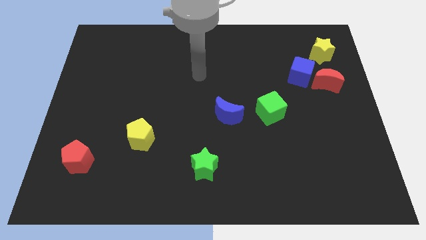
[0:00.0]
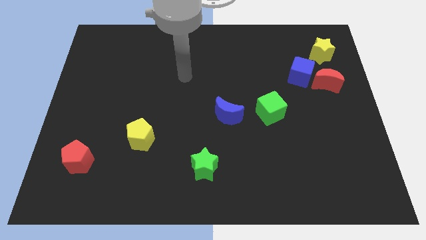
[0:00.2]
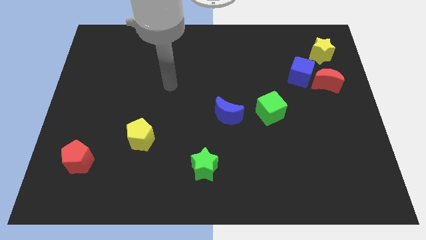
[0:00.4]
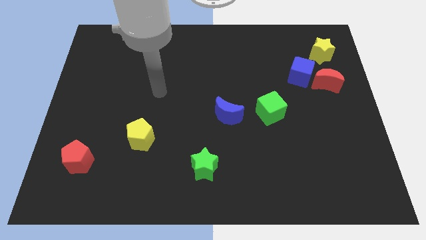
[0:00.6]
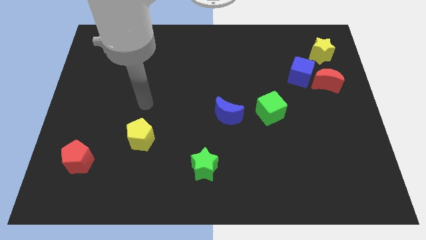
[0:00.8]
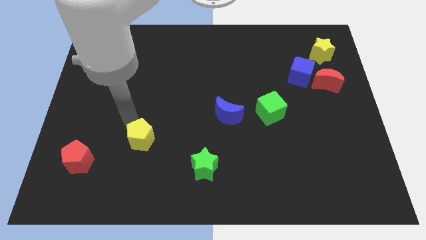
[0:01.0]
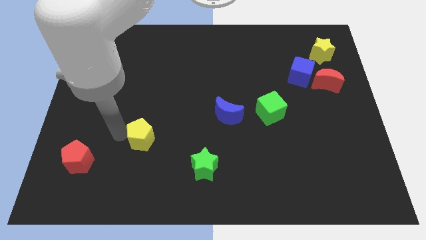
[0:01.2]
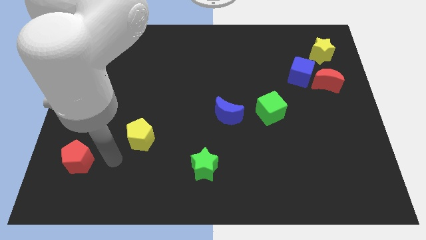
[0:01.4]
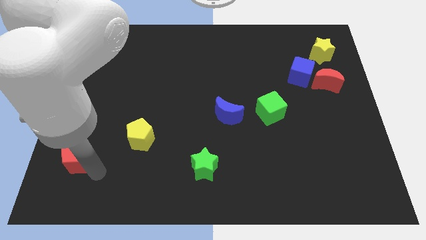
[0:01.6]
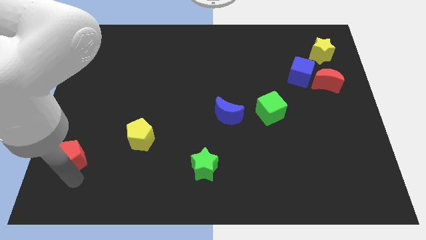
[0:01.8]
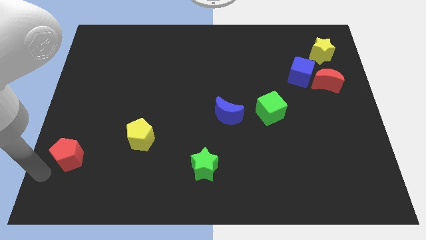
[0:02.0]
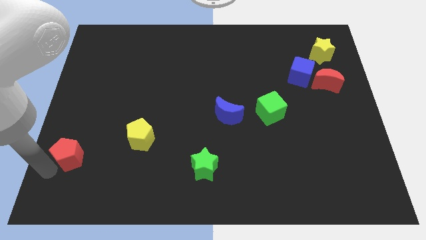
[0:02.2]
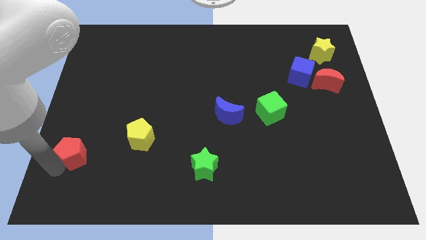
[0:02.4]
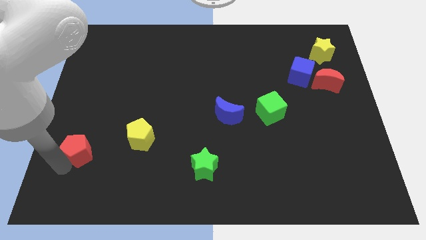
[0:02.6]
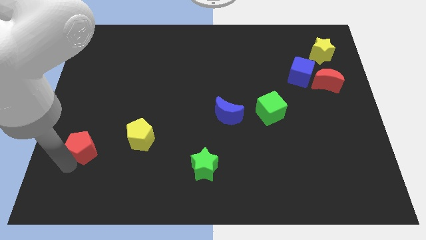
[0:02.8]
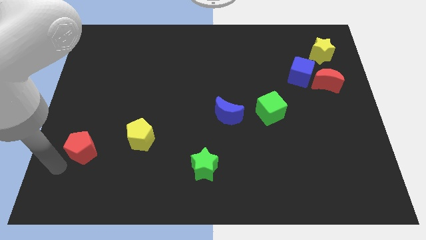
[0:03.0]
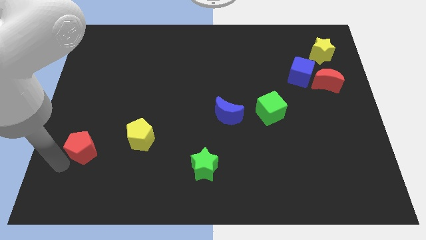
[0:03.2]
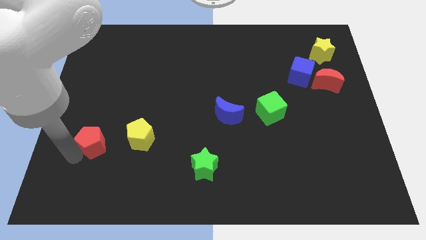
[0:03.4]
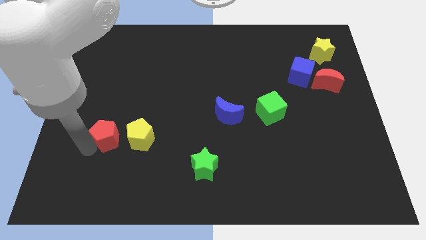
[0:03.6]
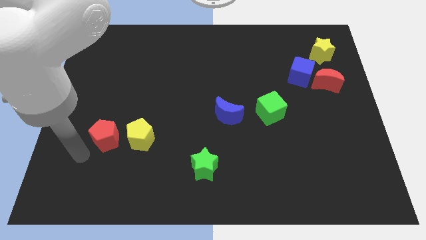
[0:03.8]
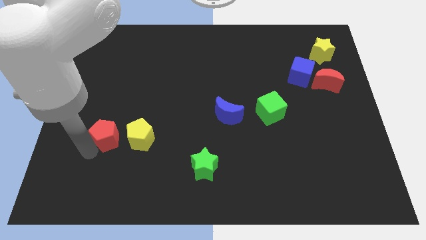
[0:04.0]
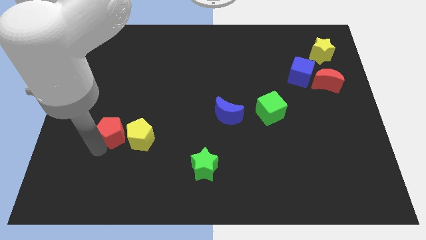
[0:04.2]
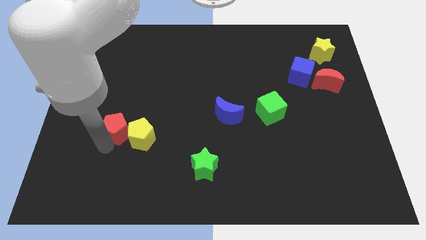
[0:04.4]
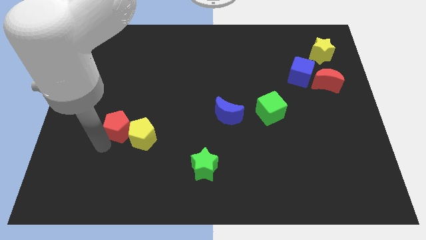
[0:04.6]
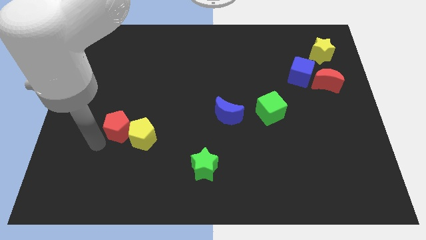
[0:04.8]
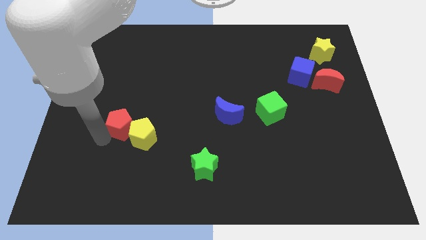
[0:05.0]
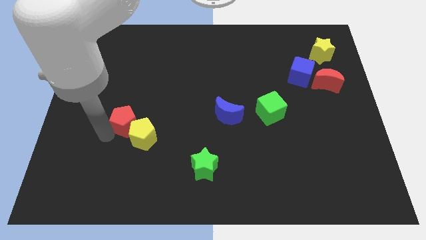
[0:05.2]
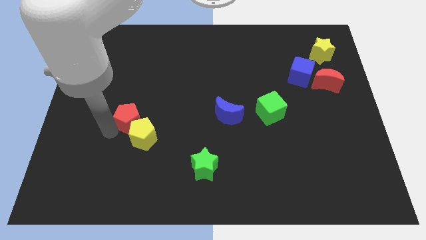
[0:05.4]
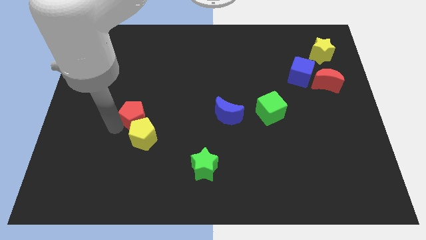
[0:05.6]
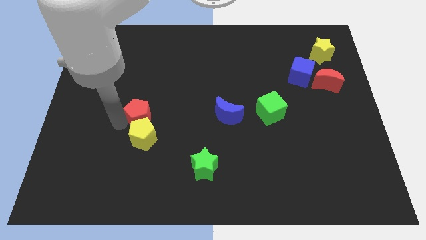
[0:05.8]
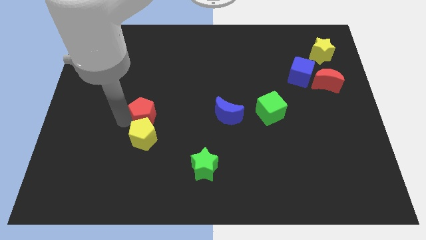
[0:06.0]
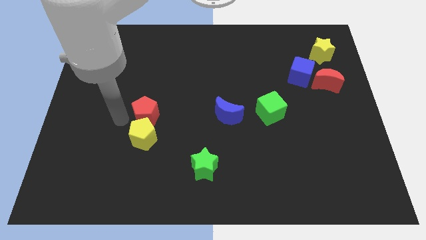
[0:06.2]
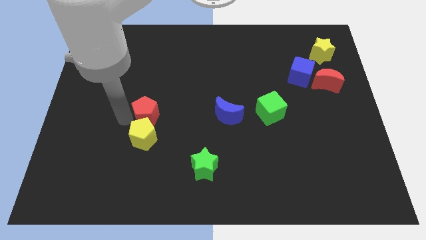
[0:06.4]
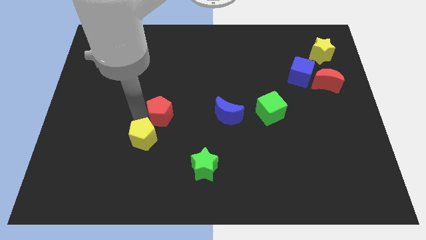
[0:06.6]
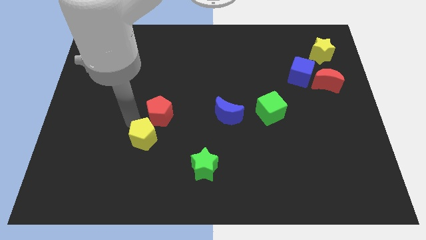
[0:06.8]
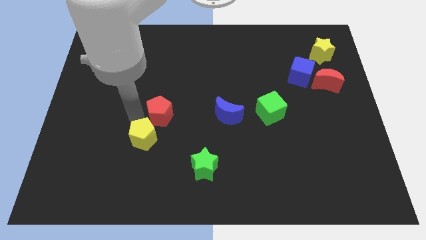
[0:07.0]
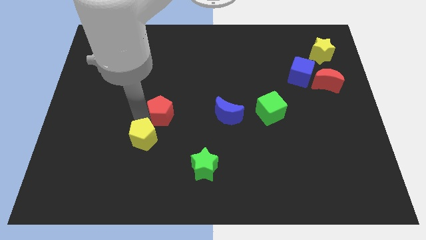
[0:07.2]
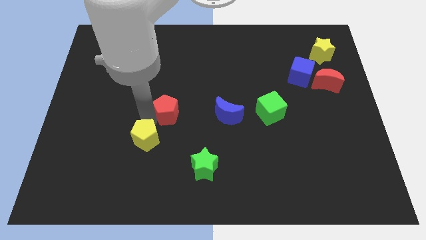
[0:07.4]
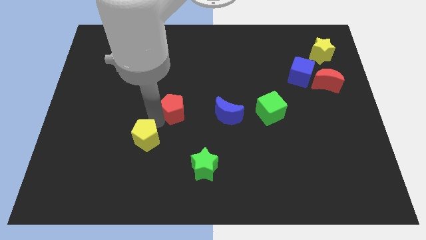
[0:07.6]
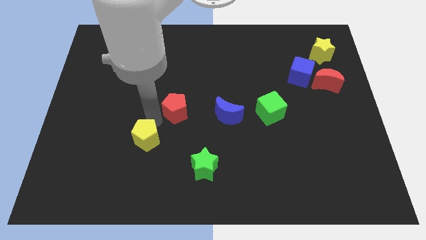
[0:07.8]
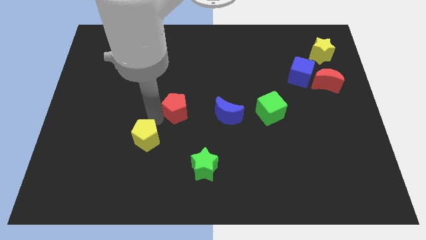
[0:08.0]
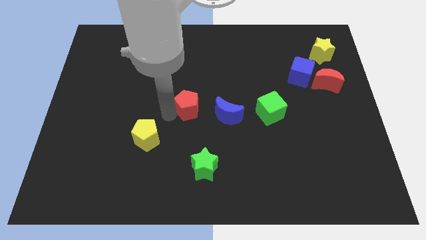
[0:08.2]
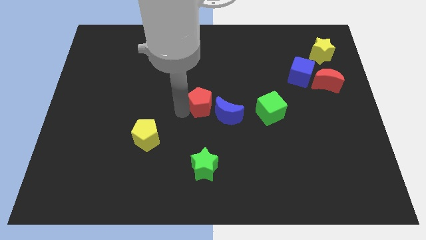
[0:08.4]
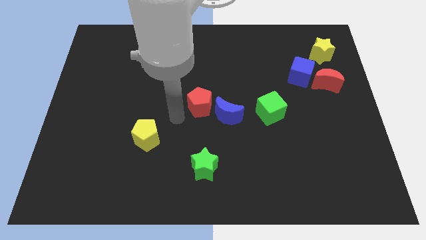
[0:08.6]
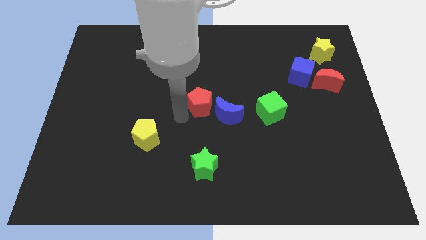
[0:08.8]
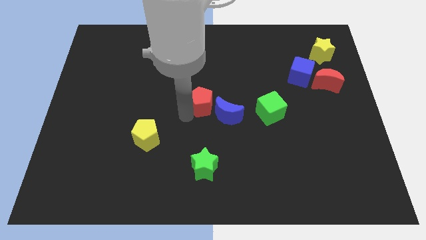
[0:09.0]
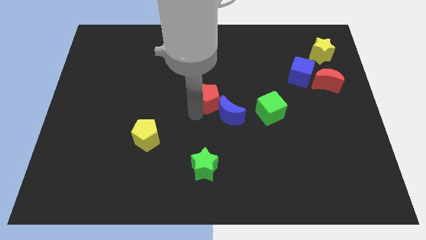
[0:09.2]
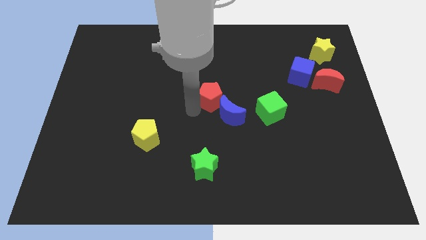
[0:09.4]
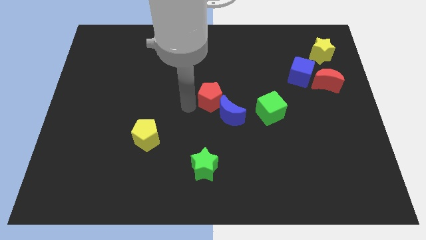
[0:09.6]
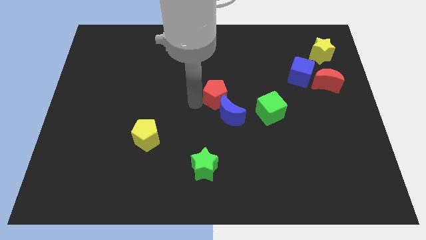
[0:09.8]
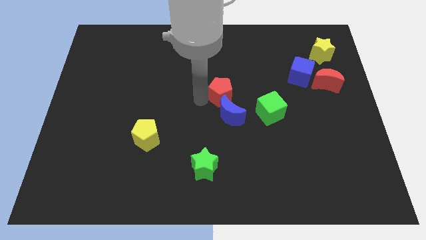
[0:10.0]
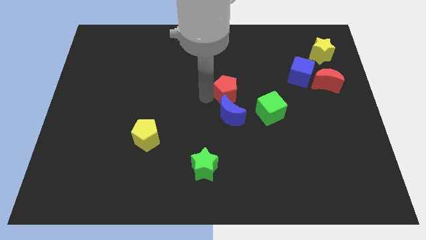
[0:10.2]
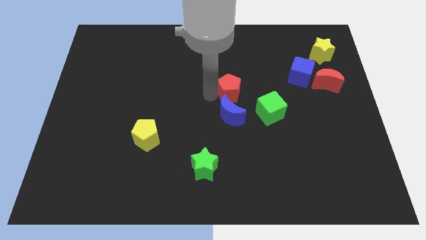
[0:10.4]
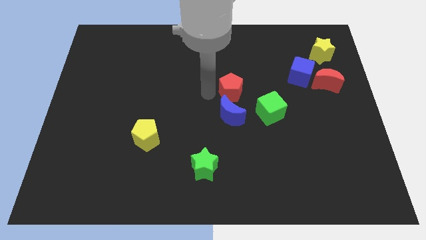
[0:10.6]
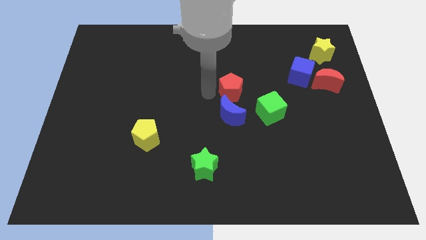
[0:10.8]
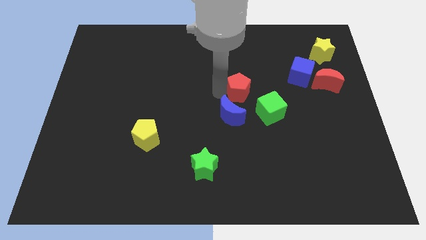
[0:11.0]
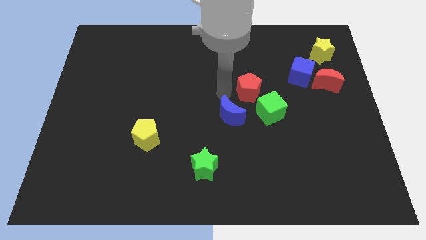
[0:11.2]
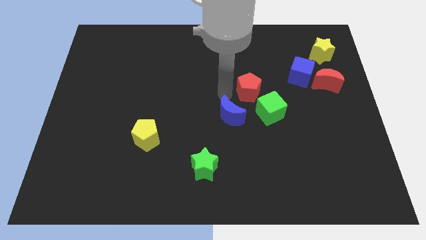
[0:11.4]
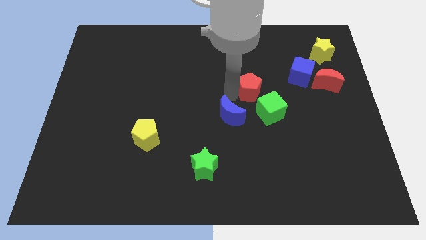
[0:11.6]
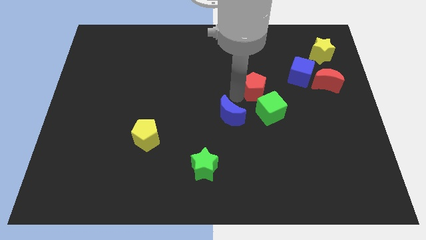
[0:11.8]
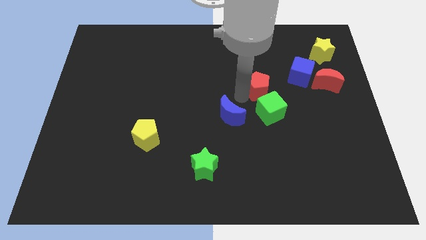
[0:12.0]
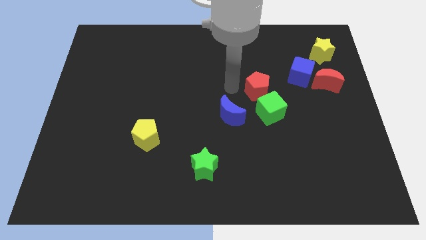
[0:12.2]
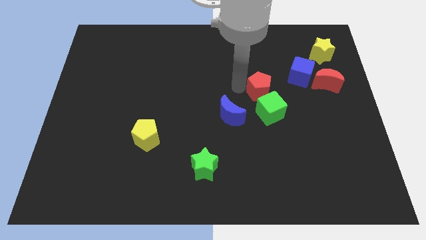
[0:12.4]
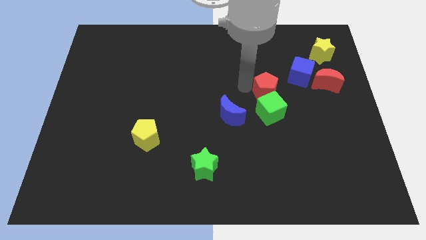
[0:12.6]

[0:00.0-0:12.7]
move the red pentagon to the top right of the green cube
